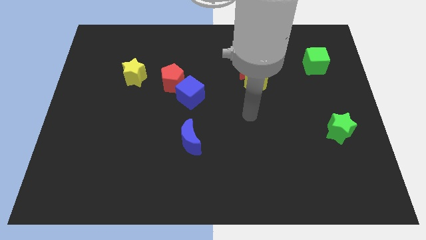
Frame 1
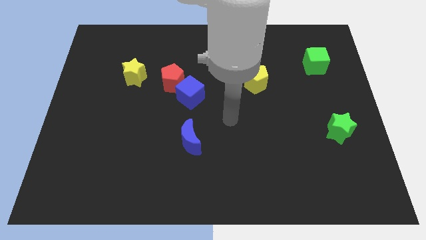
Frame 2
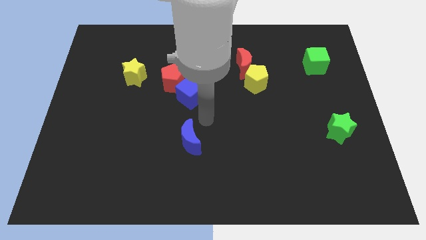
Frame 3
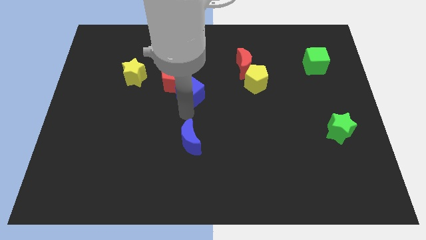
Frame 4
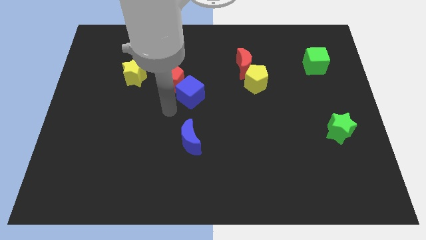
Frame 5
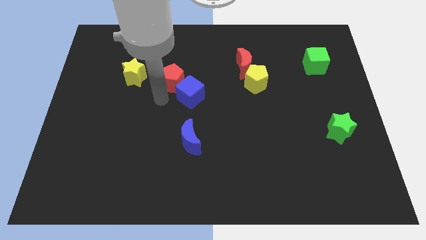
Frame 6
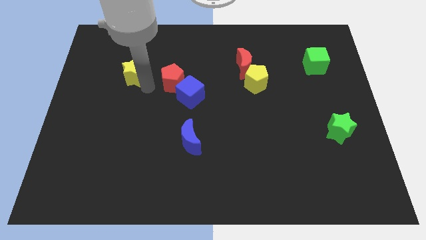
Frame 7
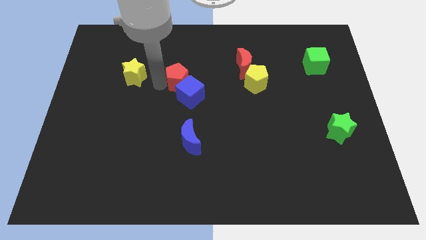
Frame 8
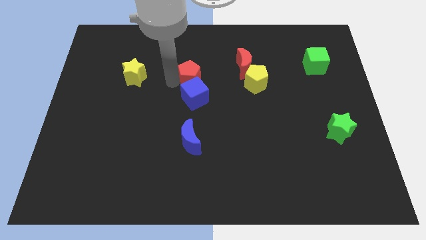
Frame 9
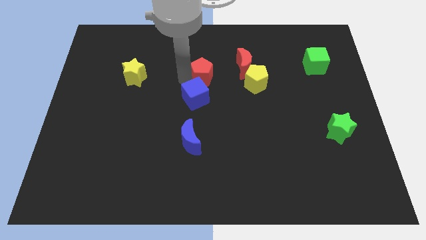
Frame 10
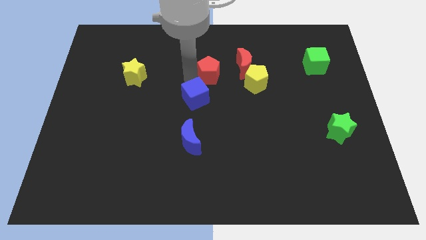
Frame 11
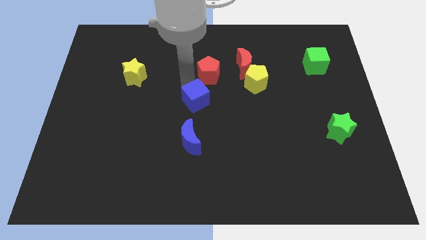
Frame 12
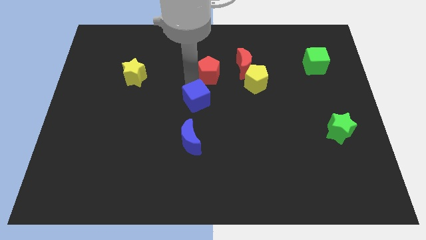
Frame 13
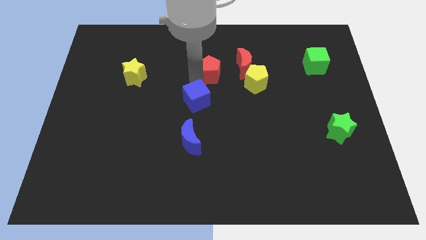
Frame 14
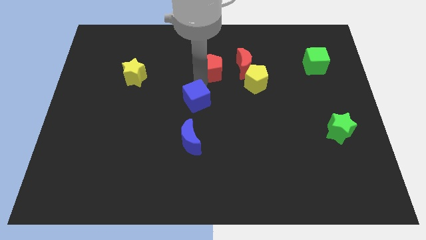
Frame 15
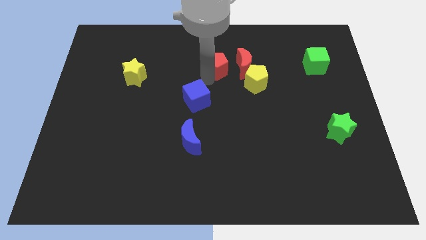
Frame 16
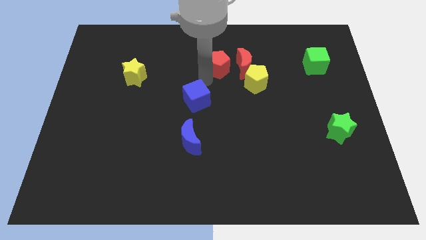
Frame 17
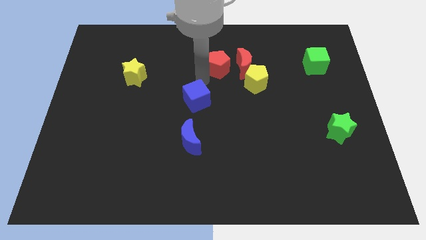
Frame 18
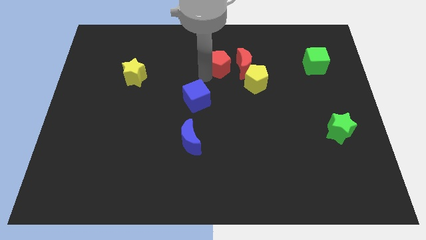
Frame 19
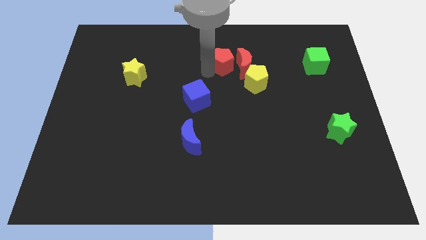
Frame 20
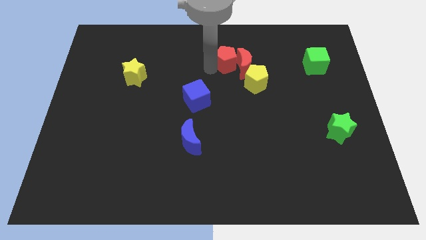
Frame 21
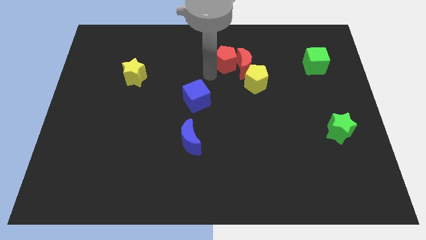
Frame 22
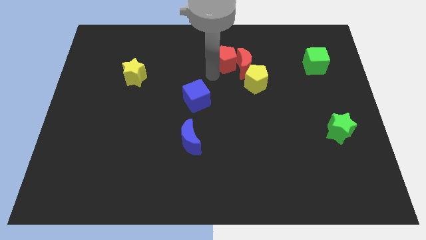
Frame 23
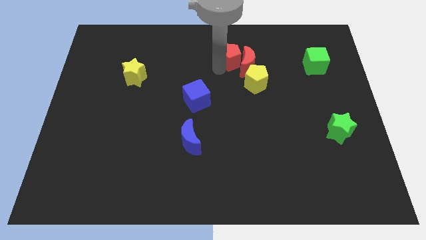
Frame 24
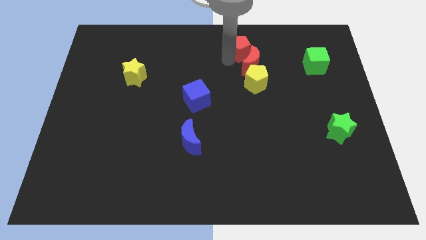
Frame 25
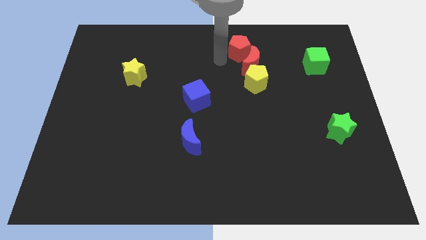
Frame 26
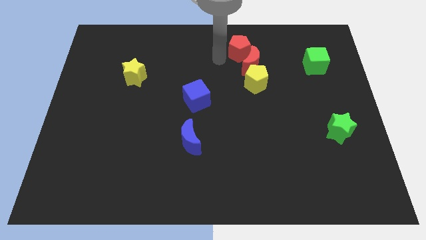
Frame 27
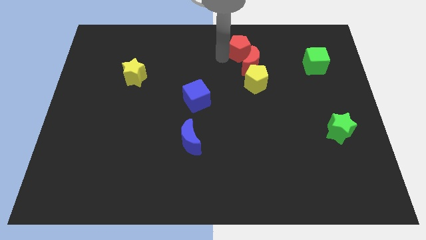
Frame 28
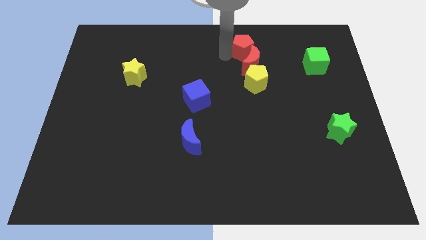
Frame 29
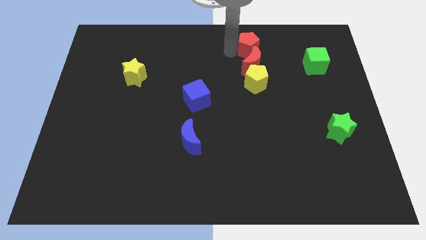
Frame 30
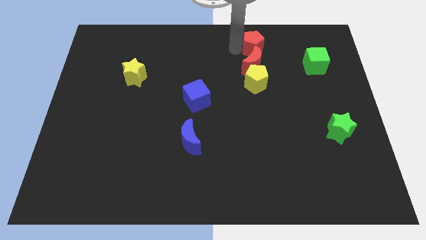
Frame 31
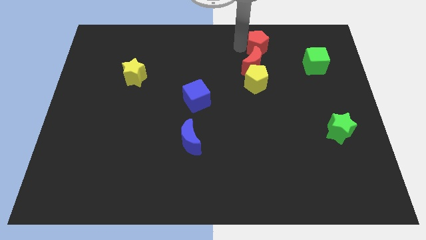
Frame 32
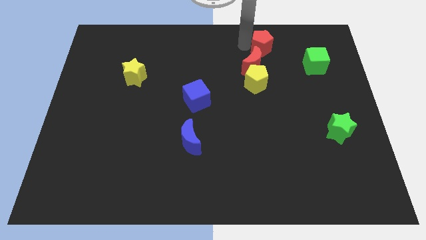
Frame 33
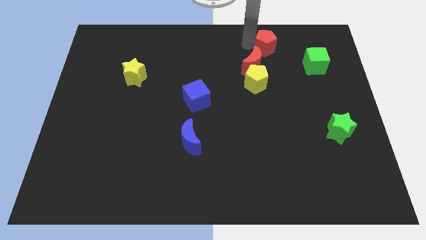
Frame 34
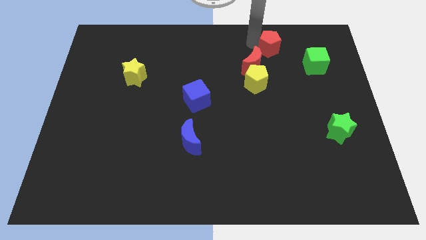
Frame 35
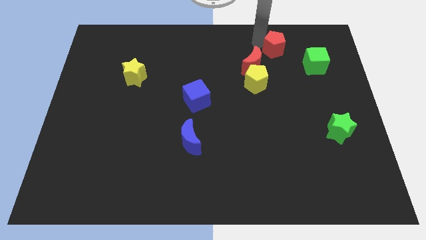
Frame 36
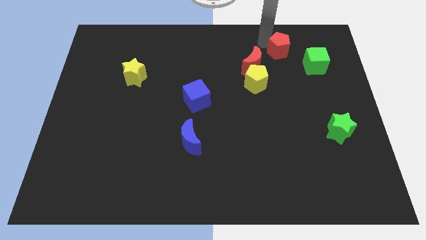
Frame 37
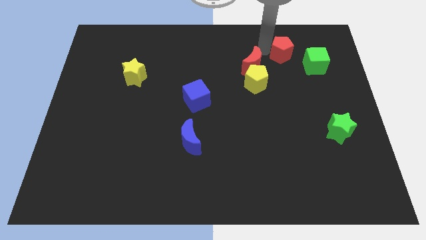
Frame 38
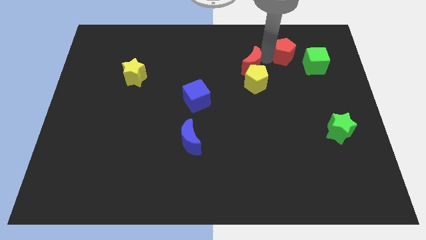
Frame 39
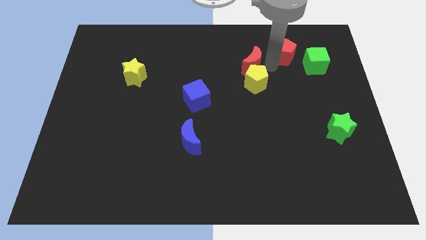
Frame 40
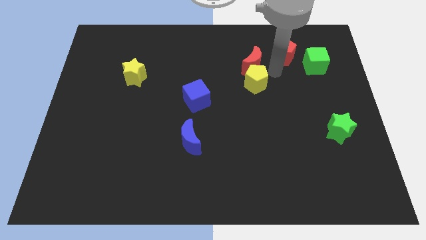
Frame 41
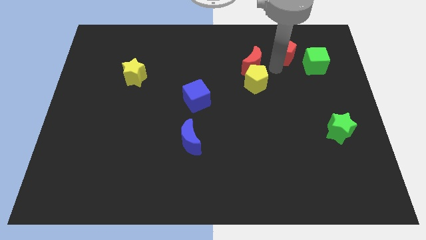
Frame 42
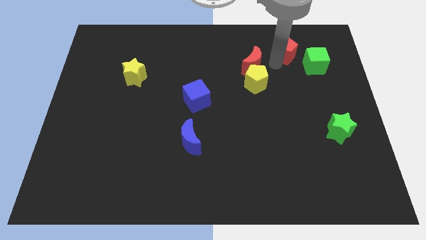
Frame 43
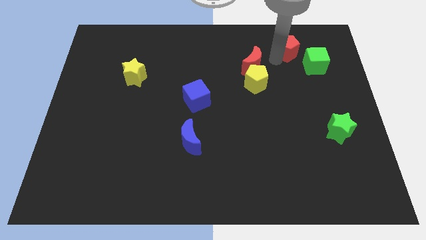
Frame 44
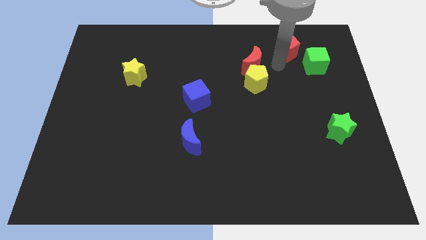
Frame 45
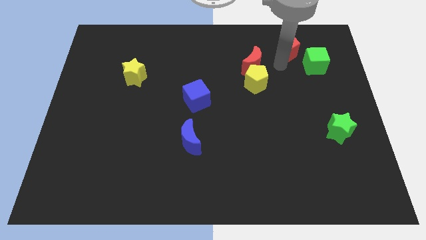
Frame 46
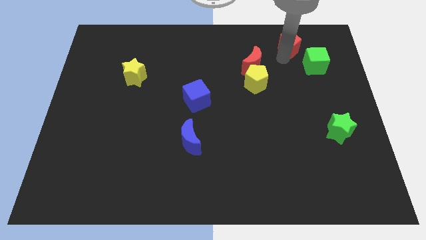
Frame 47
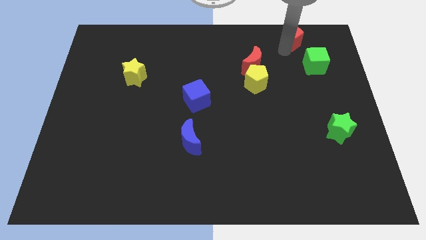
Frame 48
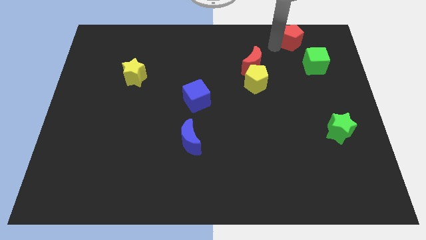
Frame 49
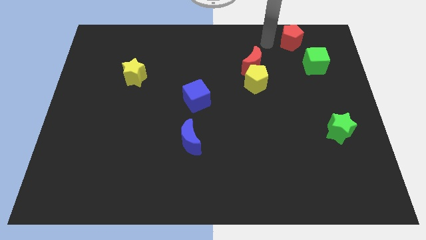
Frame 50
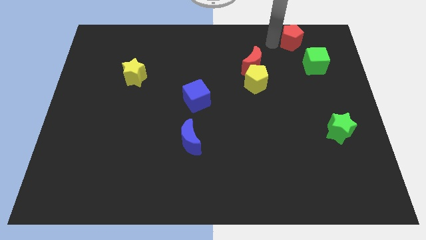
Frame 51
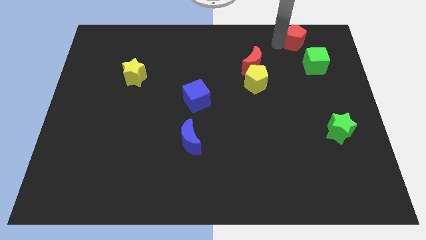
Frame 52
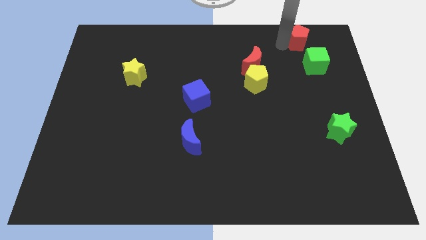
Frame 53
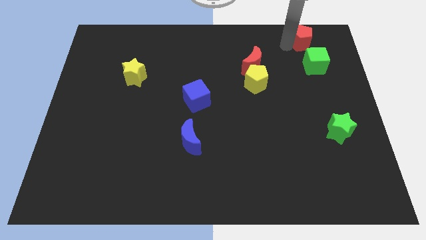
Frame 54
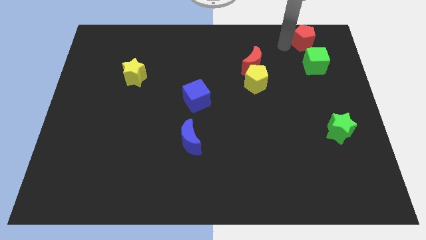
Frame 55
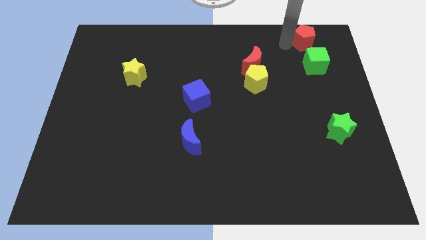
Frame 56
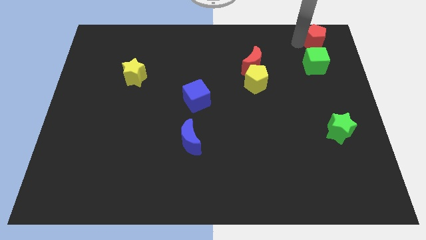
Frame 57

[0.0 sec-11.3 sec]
push the red pentagon to the top right corner

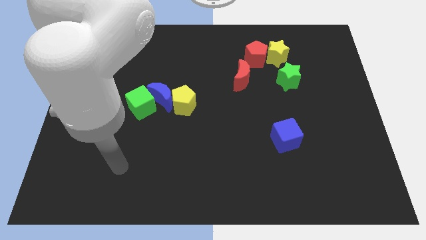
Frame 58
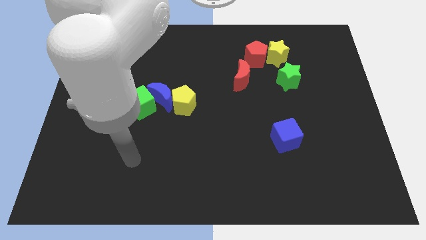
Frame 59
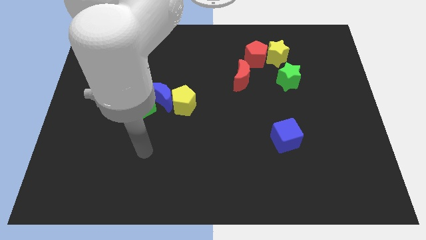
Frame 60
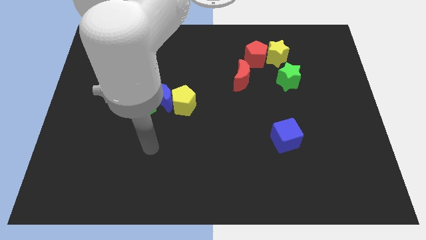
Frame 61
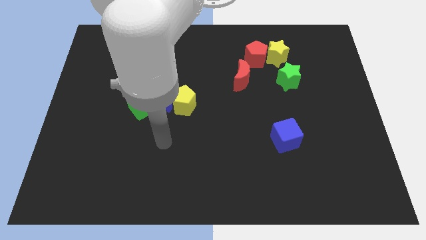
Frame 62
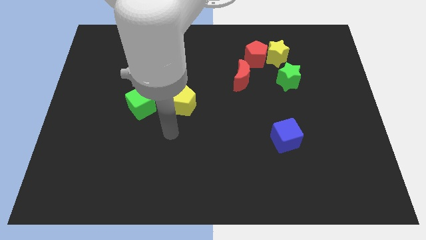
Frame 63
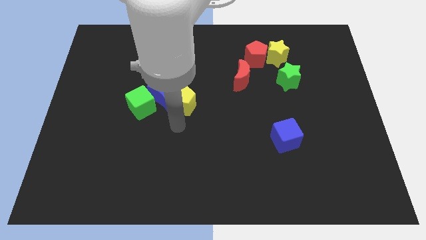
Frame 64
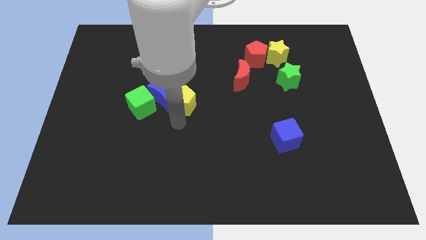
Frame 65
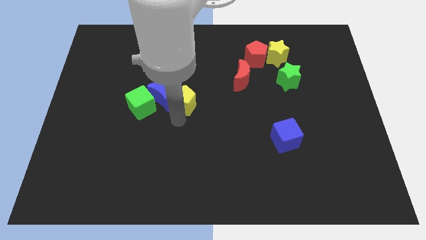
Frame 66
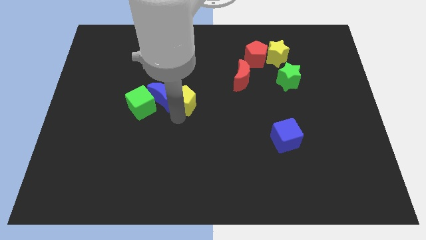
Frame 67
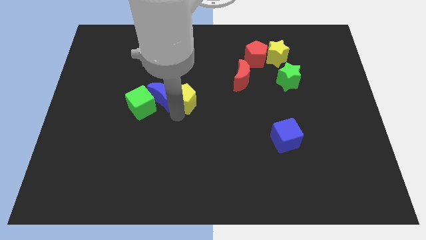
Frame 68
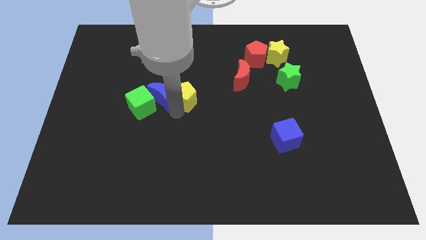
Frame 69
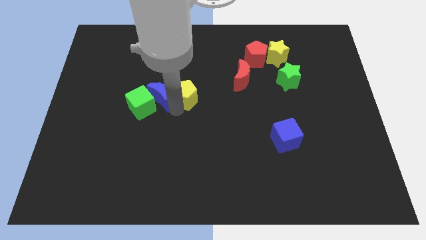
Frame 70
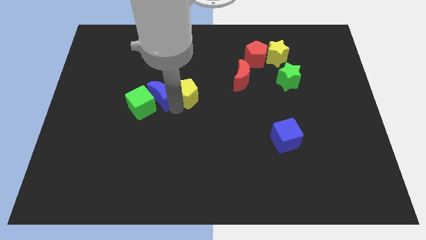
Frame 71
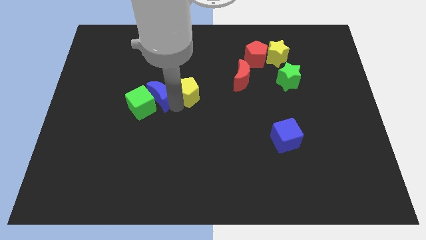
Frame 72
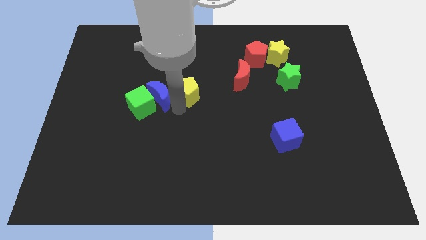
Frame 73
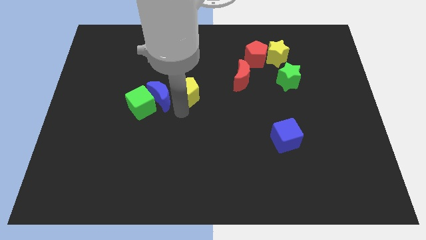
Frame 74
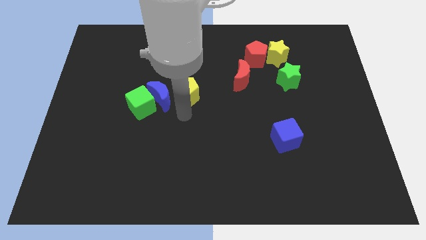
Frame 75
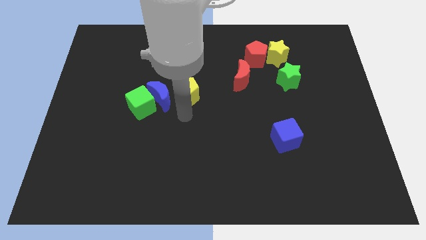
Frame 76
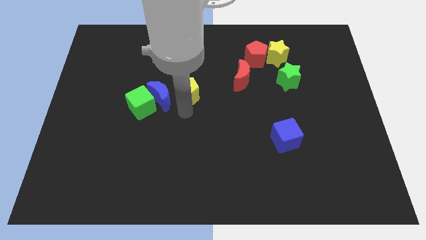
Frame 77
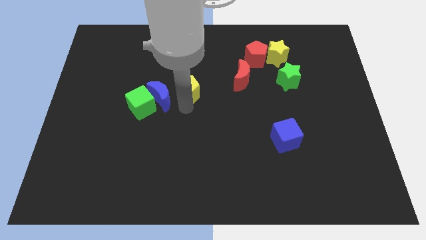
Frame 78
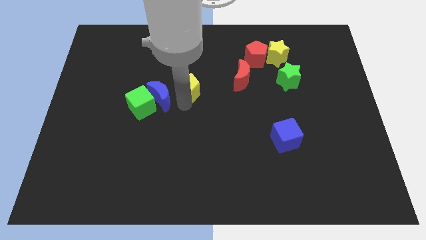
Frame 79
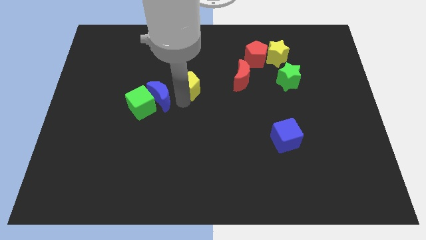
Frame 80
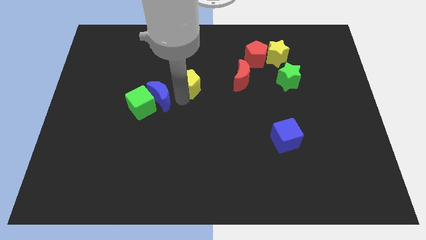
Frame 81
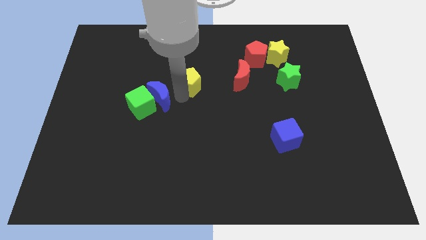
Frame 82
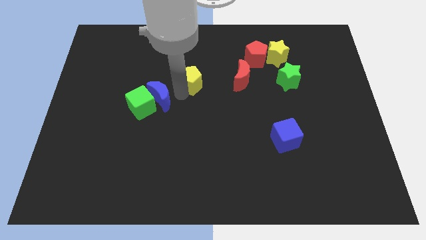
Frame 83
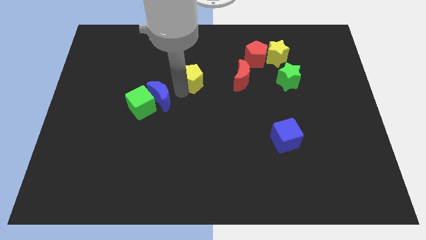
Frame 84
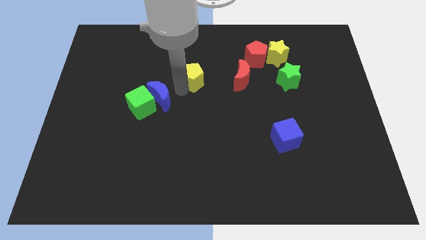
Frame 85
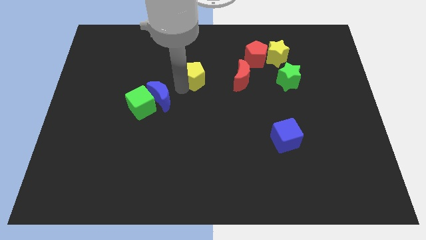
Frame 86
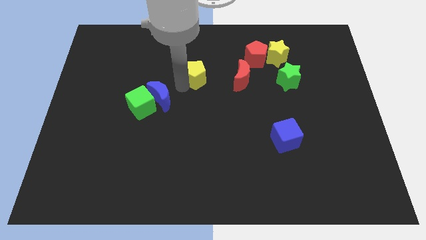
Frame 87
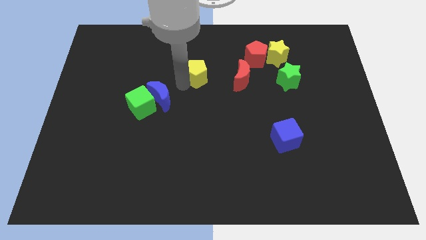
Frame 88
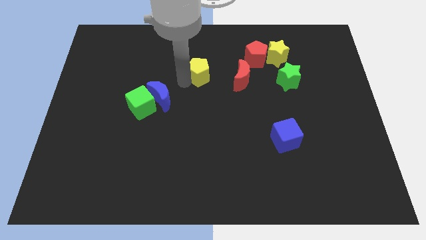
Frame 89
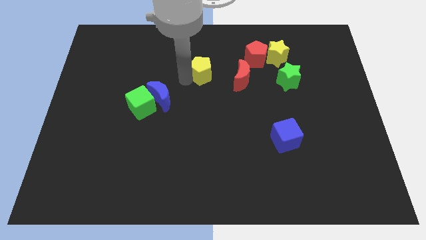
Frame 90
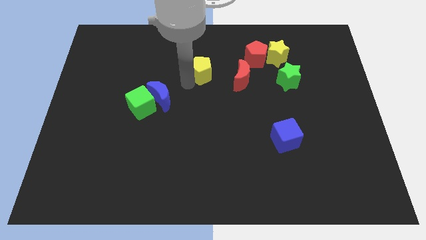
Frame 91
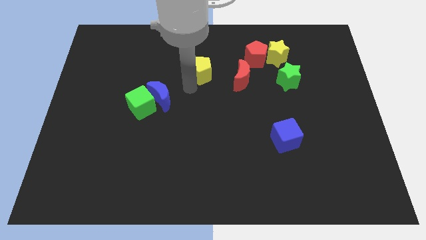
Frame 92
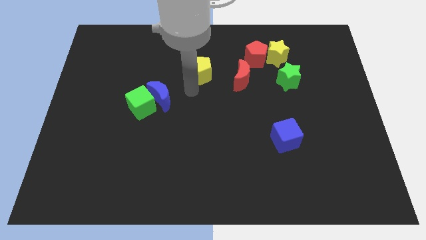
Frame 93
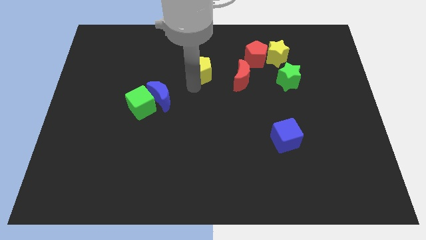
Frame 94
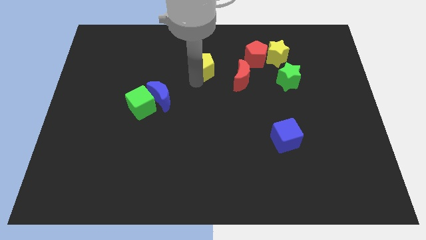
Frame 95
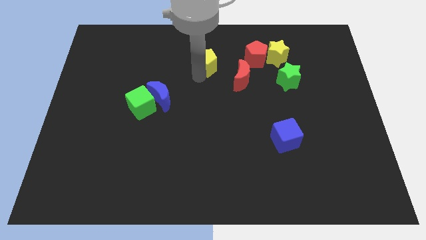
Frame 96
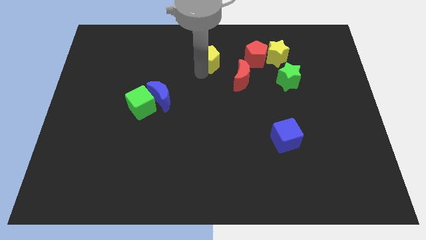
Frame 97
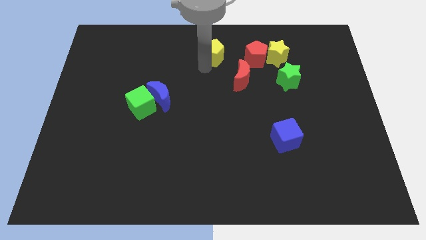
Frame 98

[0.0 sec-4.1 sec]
move the yellow pentagon to the top side
